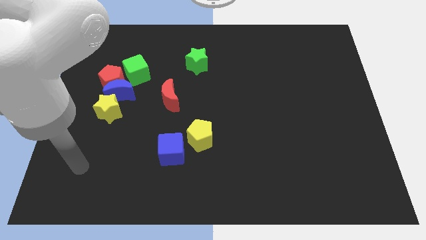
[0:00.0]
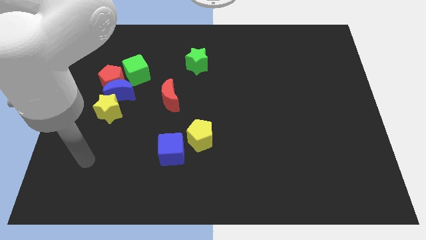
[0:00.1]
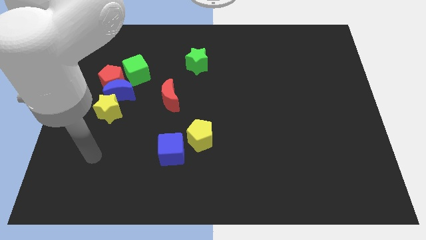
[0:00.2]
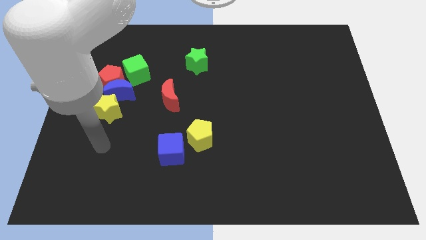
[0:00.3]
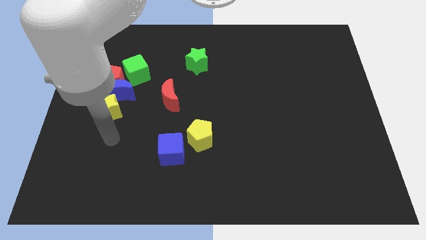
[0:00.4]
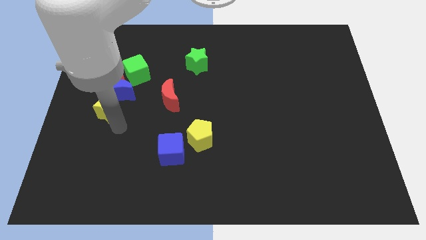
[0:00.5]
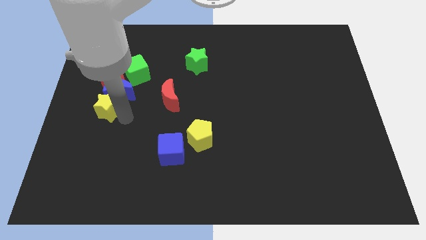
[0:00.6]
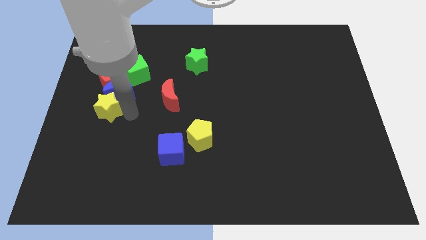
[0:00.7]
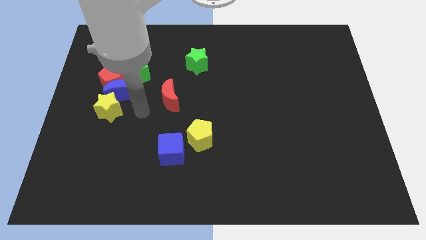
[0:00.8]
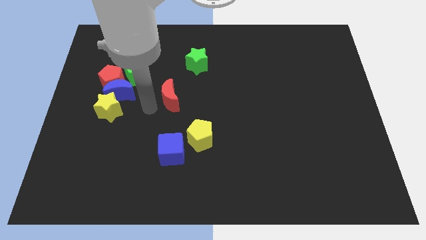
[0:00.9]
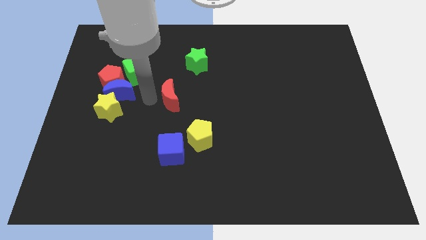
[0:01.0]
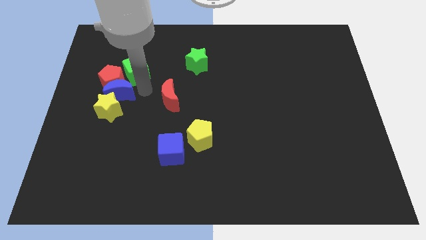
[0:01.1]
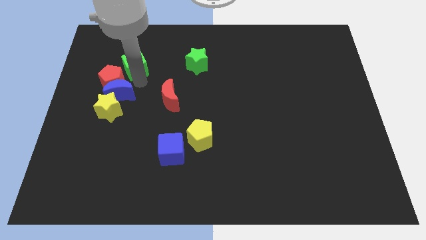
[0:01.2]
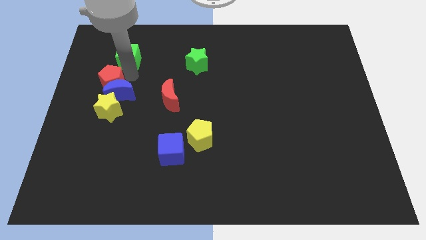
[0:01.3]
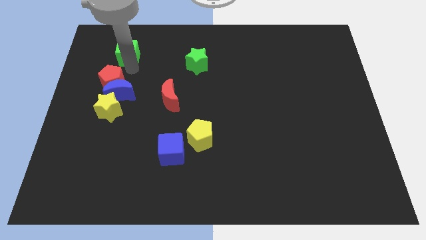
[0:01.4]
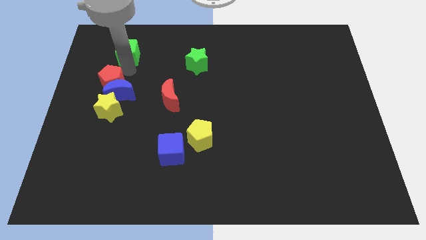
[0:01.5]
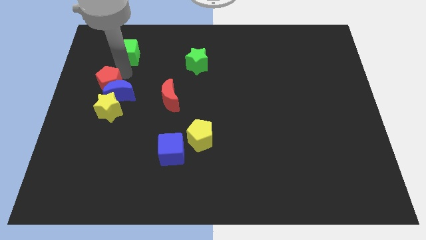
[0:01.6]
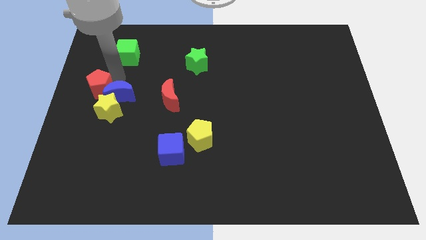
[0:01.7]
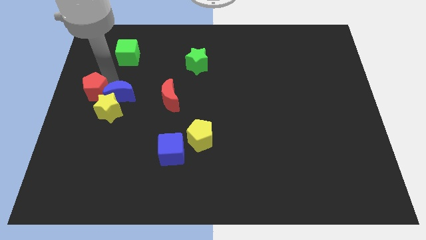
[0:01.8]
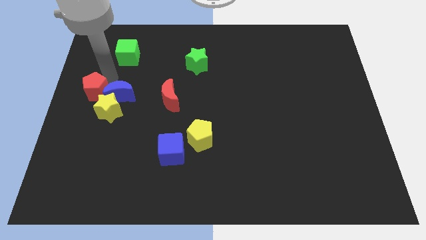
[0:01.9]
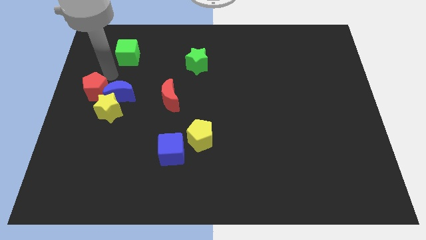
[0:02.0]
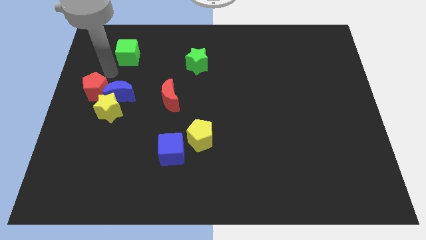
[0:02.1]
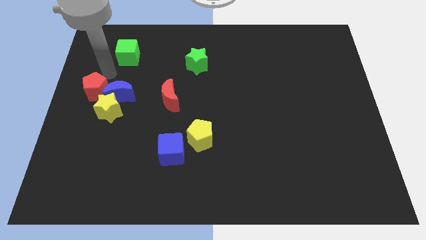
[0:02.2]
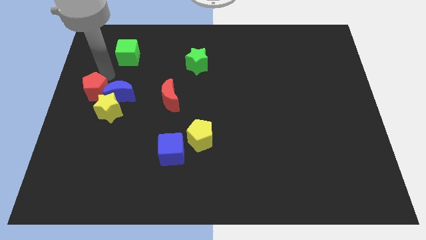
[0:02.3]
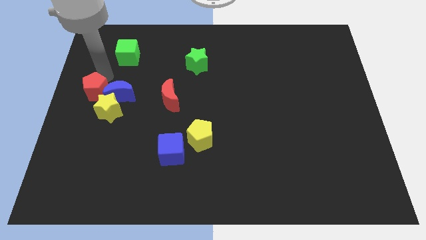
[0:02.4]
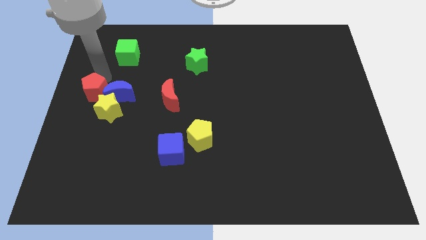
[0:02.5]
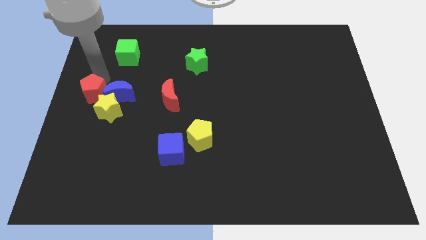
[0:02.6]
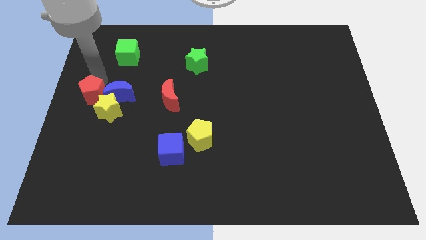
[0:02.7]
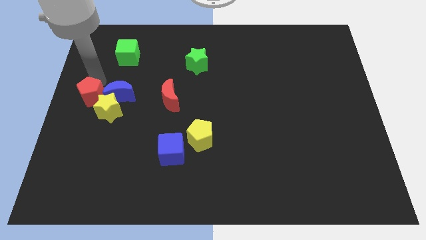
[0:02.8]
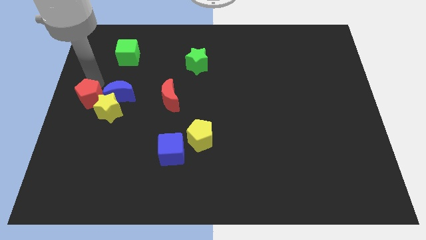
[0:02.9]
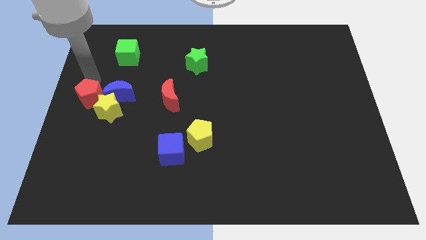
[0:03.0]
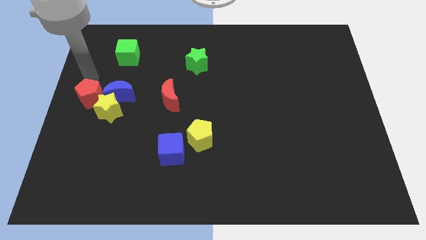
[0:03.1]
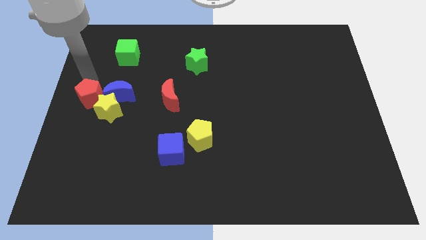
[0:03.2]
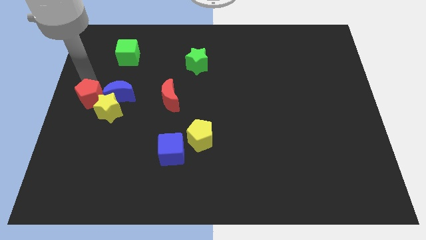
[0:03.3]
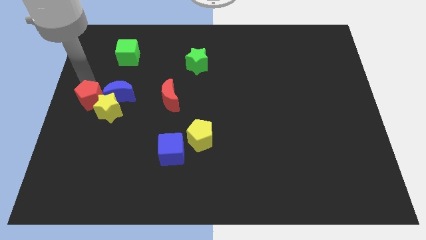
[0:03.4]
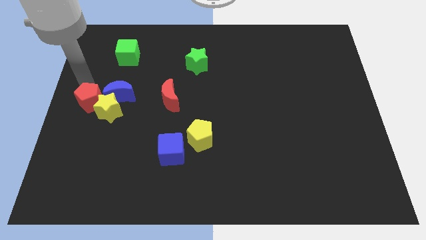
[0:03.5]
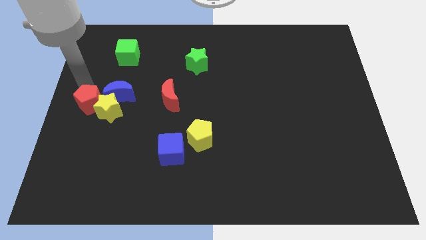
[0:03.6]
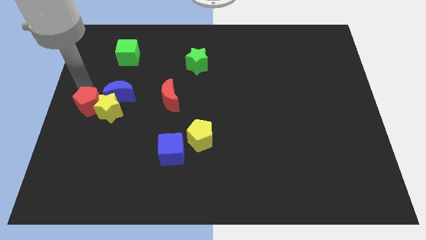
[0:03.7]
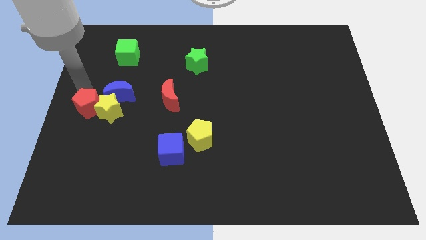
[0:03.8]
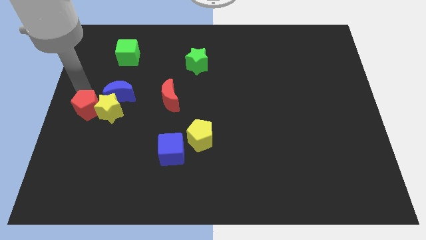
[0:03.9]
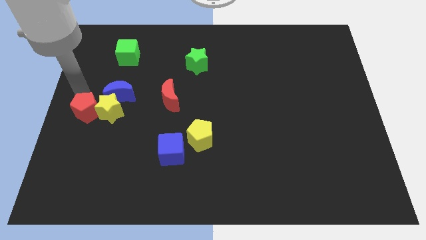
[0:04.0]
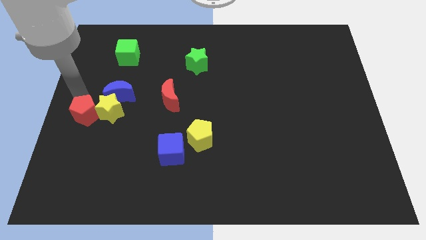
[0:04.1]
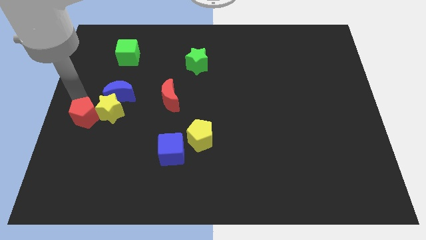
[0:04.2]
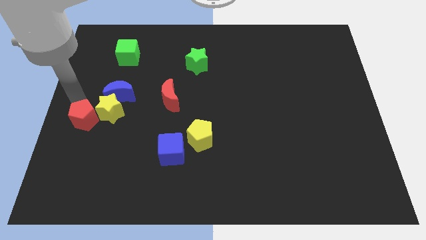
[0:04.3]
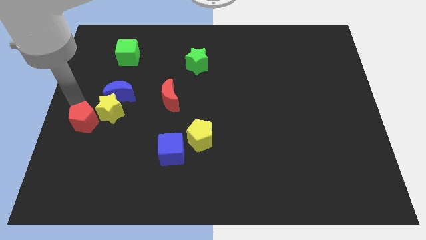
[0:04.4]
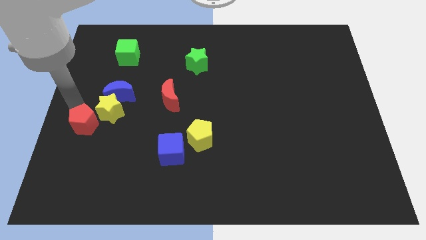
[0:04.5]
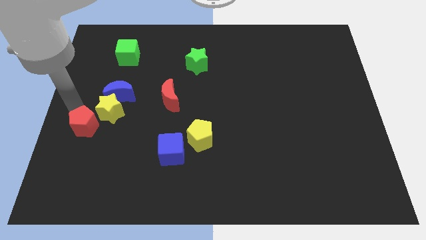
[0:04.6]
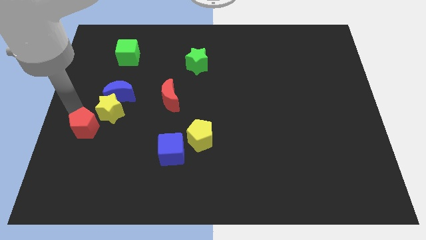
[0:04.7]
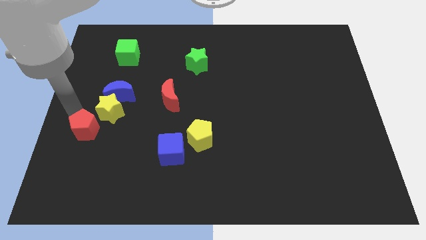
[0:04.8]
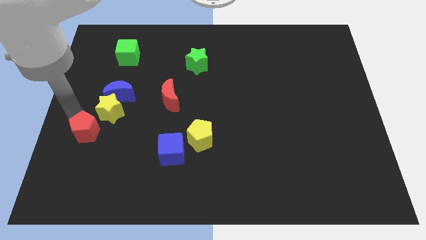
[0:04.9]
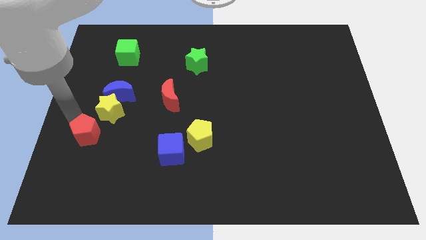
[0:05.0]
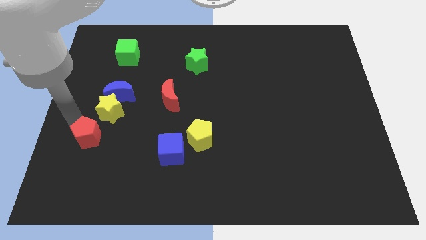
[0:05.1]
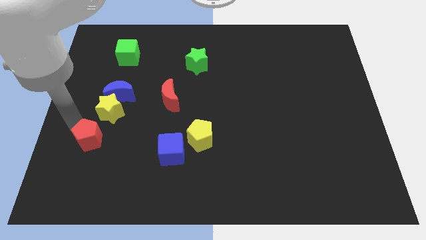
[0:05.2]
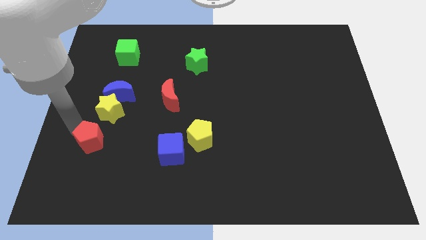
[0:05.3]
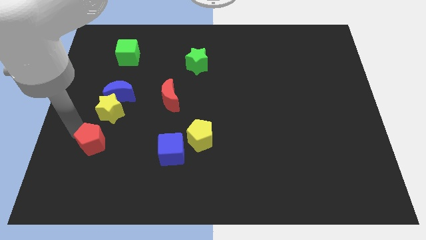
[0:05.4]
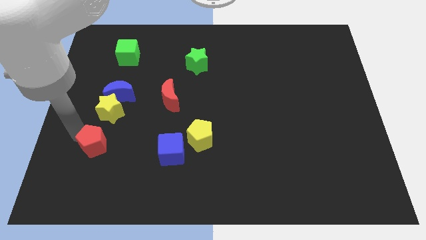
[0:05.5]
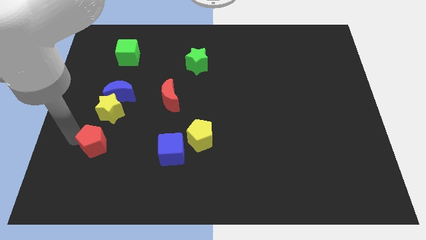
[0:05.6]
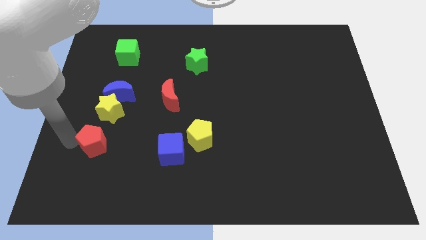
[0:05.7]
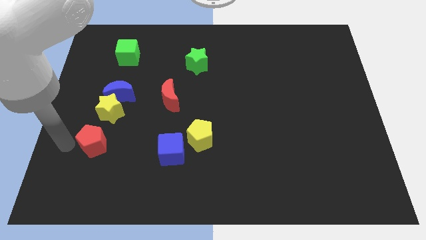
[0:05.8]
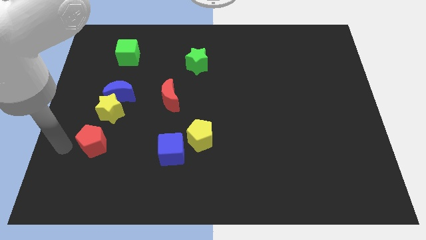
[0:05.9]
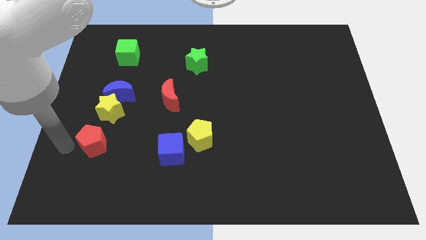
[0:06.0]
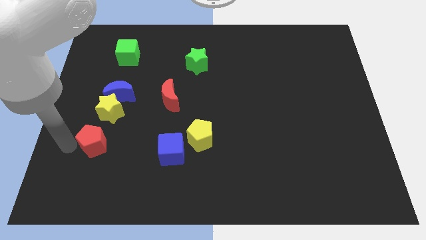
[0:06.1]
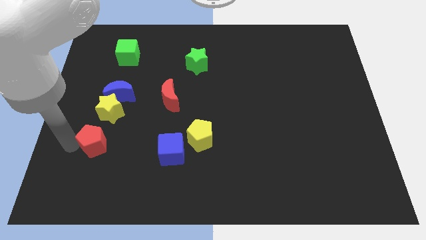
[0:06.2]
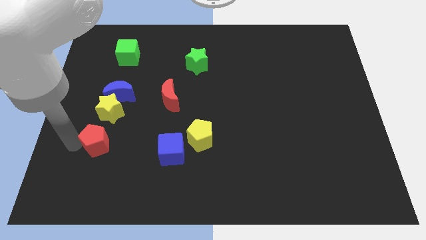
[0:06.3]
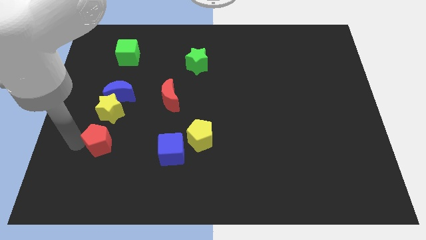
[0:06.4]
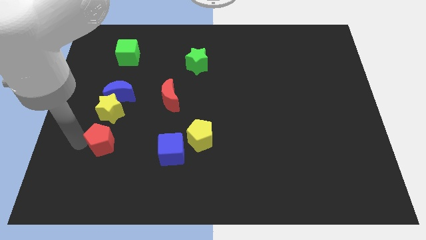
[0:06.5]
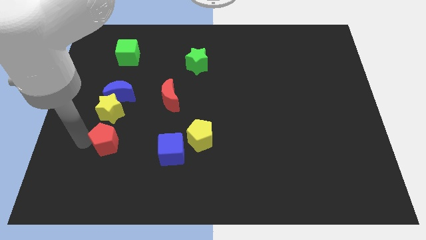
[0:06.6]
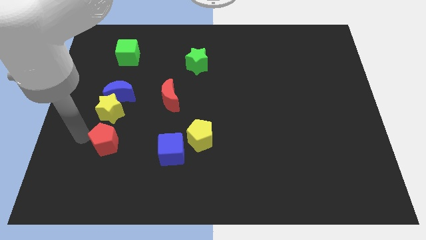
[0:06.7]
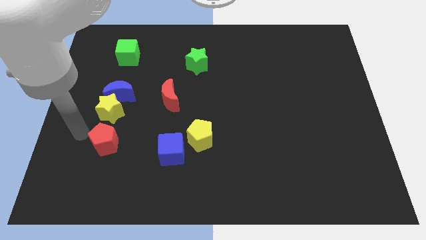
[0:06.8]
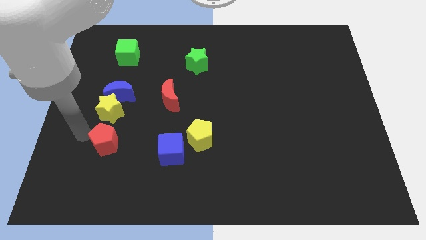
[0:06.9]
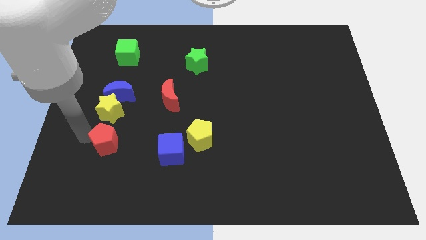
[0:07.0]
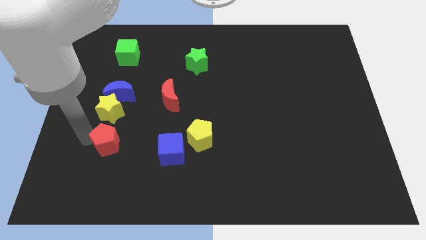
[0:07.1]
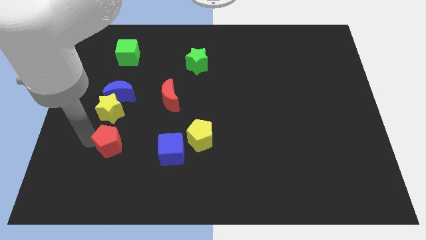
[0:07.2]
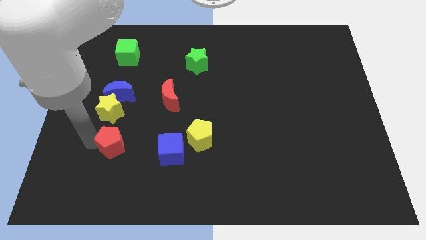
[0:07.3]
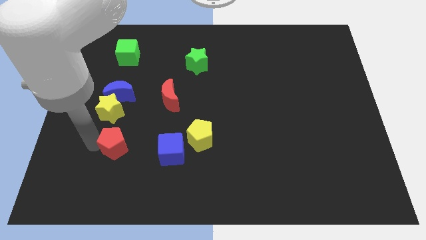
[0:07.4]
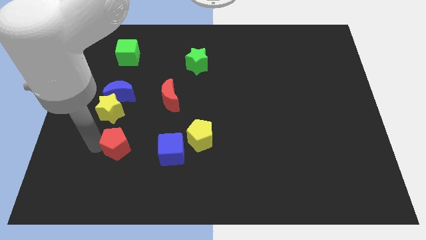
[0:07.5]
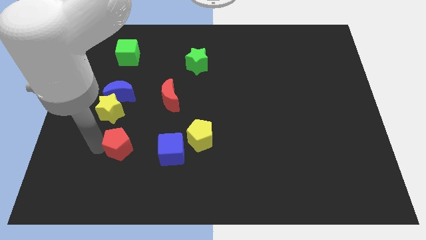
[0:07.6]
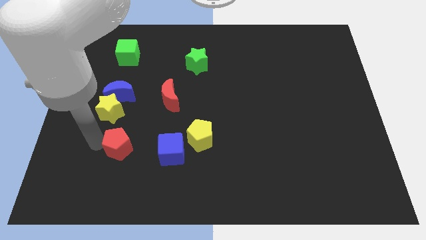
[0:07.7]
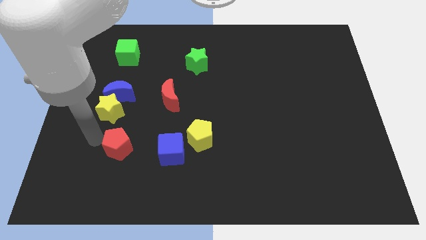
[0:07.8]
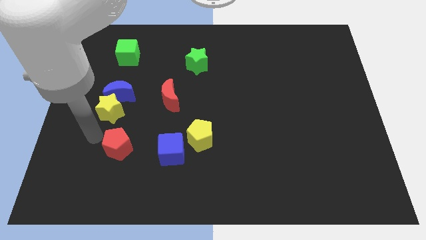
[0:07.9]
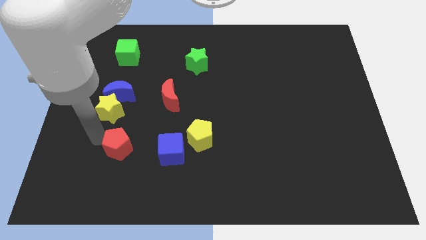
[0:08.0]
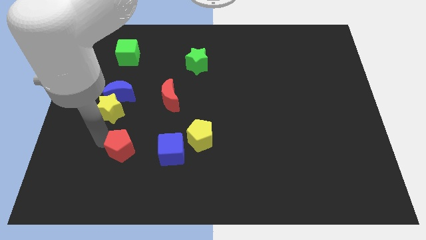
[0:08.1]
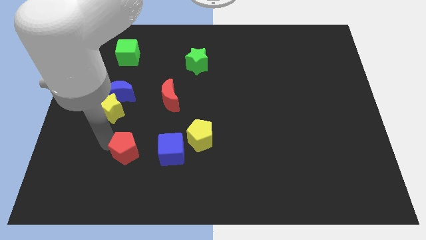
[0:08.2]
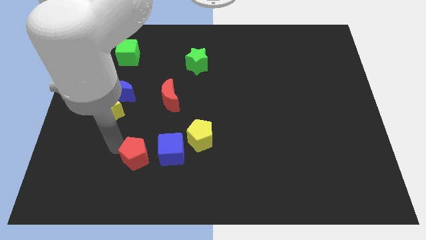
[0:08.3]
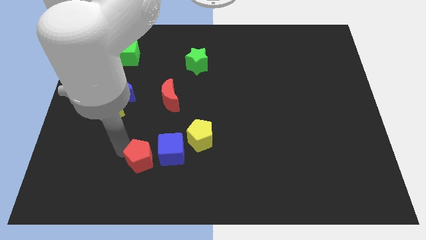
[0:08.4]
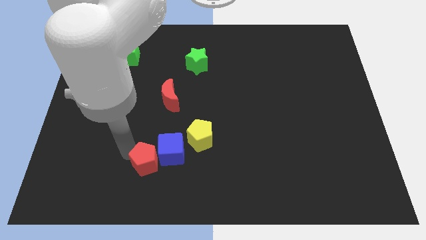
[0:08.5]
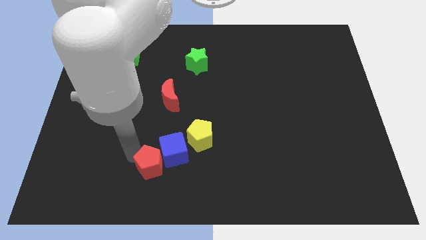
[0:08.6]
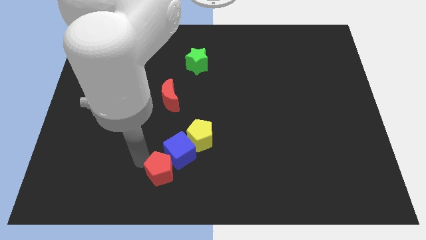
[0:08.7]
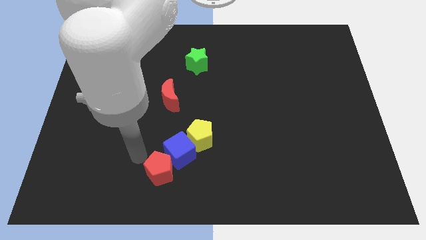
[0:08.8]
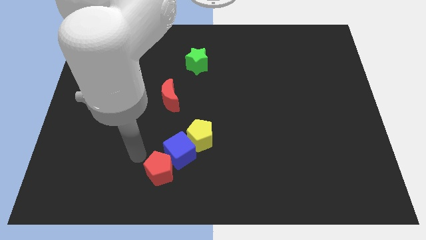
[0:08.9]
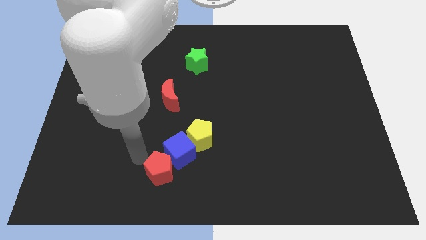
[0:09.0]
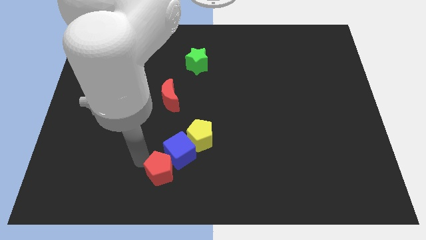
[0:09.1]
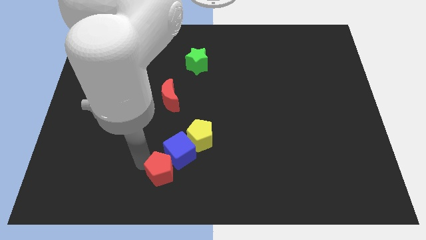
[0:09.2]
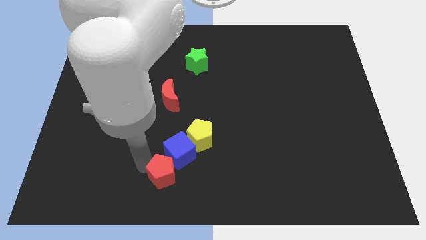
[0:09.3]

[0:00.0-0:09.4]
push the red pentagon to the bottom side
